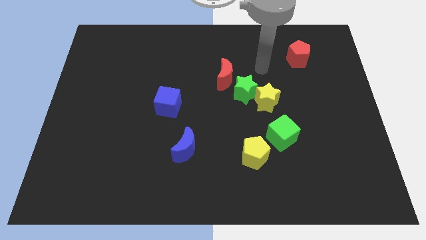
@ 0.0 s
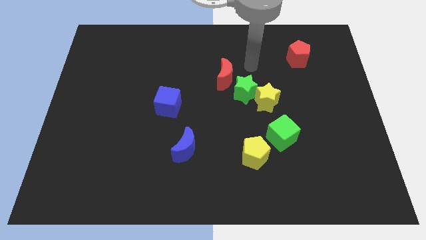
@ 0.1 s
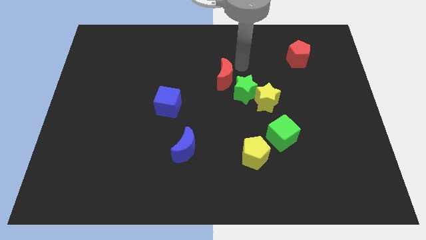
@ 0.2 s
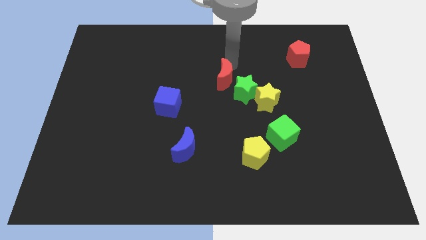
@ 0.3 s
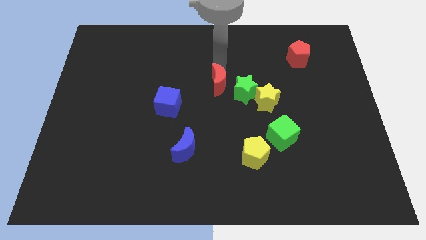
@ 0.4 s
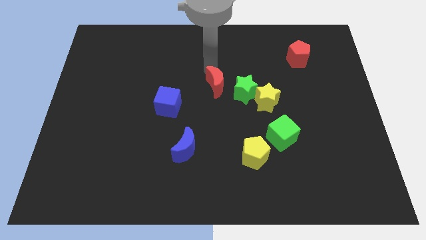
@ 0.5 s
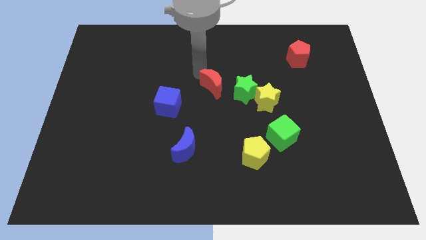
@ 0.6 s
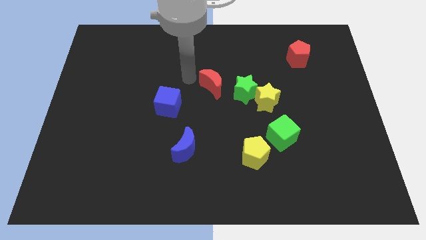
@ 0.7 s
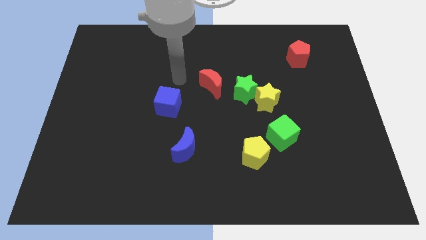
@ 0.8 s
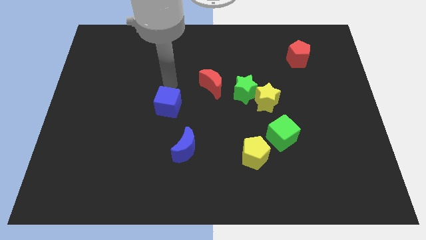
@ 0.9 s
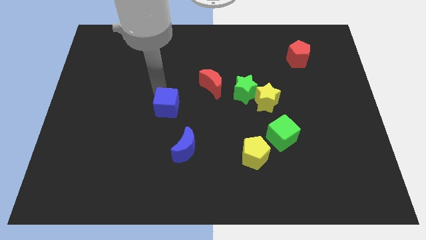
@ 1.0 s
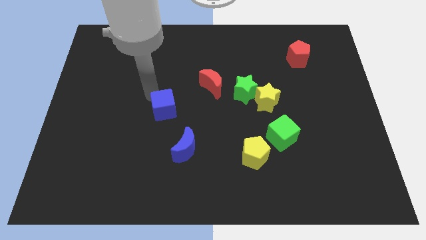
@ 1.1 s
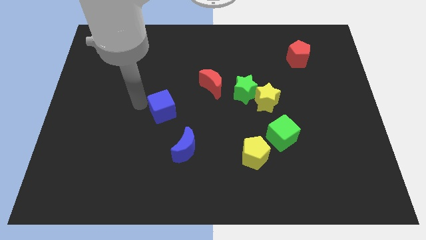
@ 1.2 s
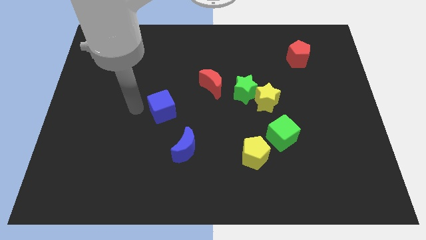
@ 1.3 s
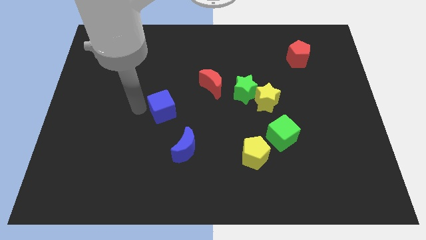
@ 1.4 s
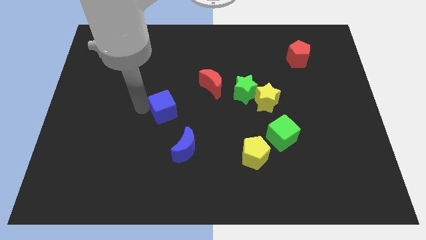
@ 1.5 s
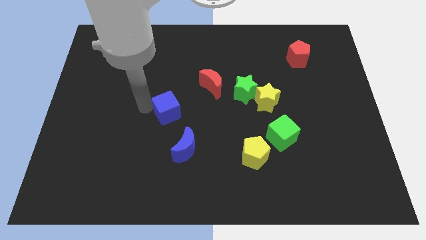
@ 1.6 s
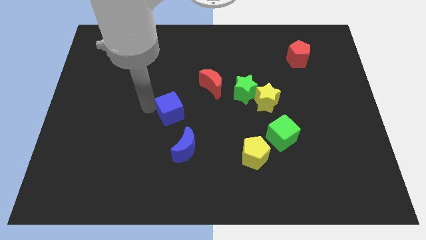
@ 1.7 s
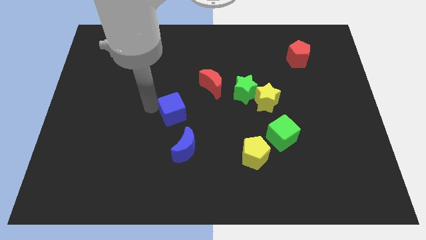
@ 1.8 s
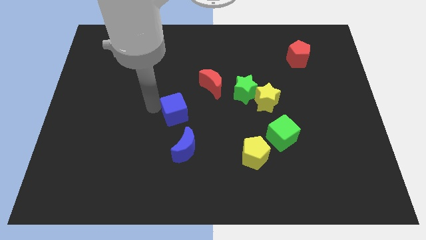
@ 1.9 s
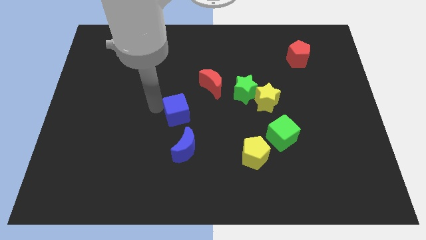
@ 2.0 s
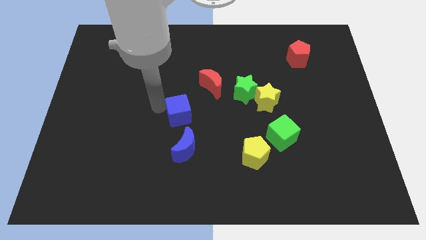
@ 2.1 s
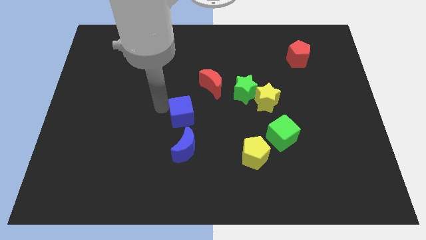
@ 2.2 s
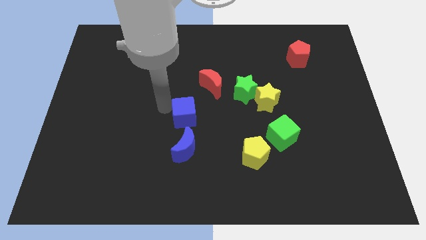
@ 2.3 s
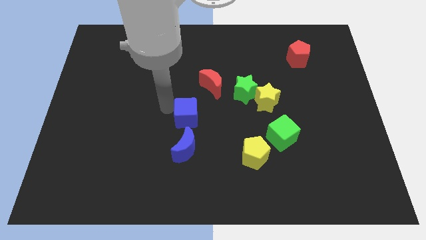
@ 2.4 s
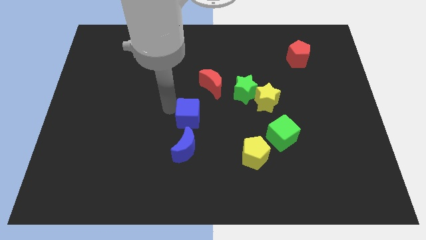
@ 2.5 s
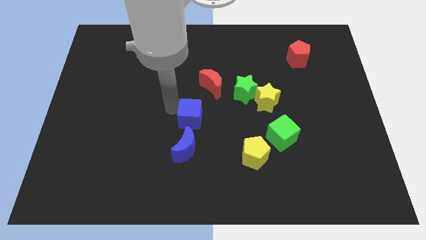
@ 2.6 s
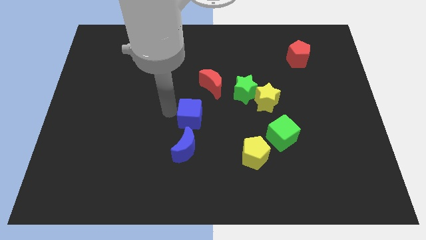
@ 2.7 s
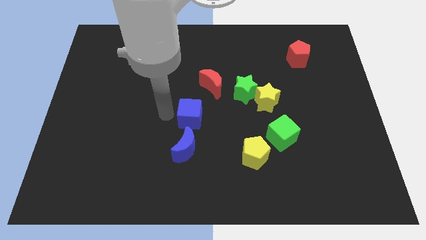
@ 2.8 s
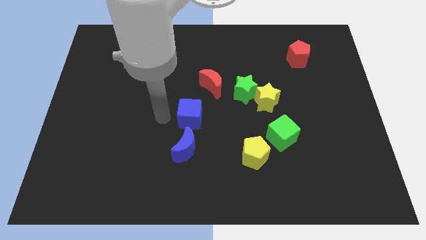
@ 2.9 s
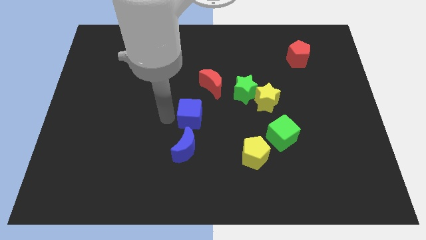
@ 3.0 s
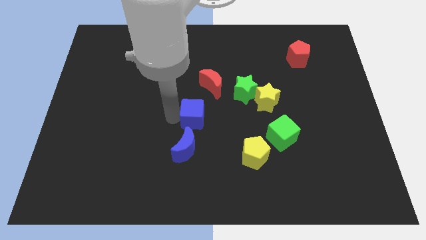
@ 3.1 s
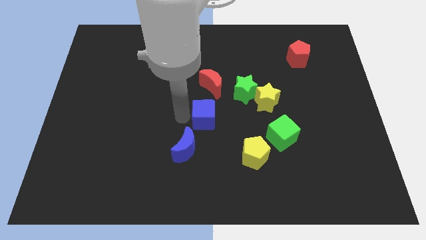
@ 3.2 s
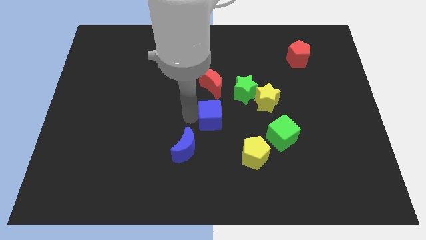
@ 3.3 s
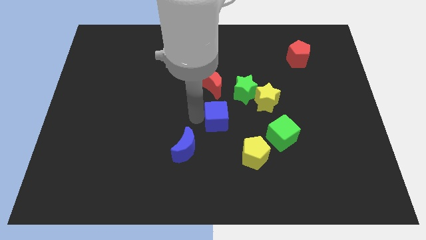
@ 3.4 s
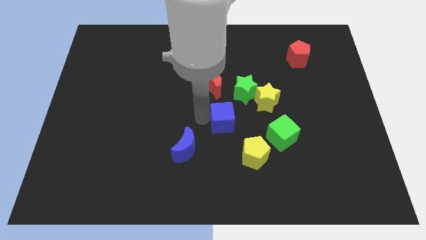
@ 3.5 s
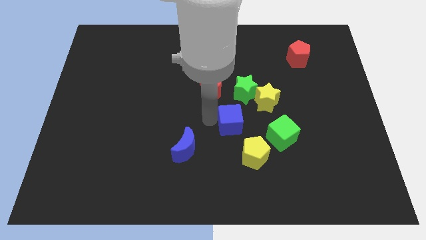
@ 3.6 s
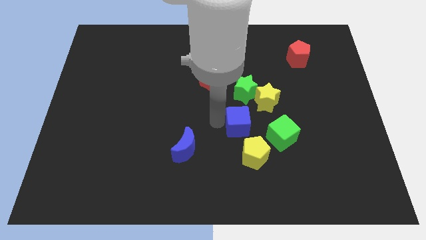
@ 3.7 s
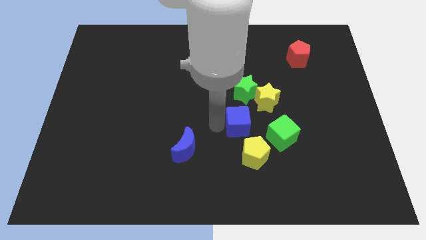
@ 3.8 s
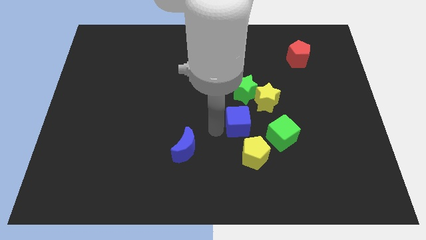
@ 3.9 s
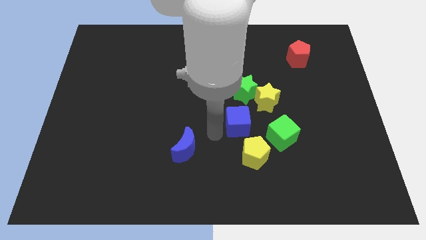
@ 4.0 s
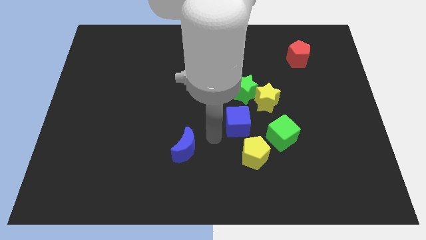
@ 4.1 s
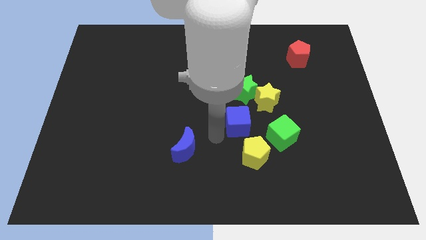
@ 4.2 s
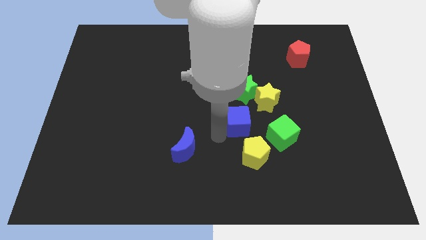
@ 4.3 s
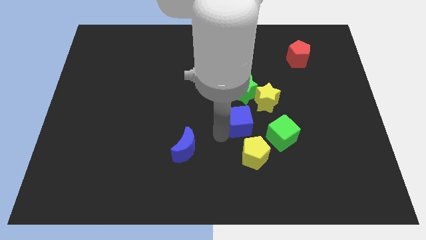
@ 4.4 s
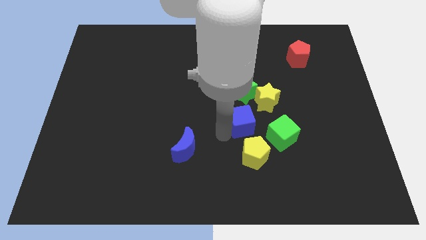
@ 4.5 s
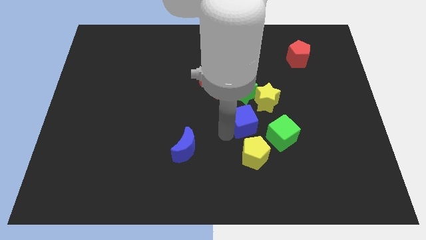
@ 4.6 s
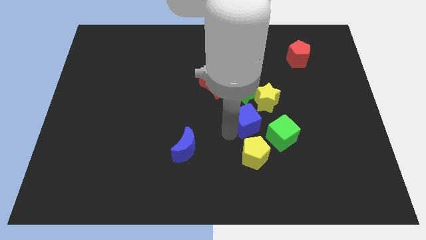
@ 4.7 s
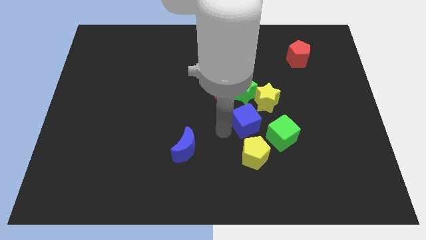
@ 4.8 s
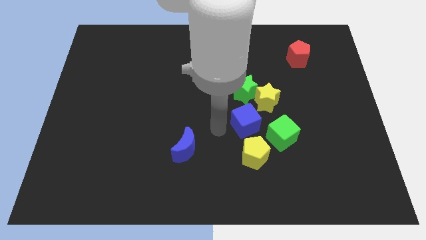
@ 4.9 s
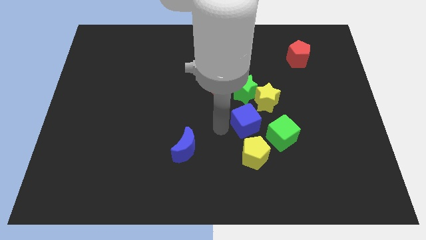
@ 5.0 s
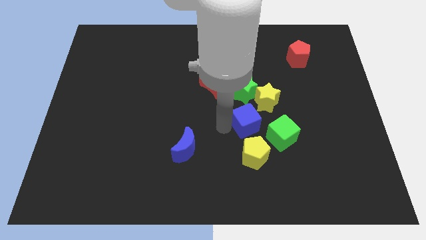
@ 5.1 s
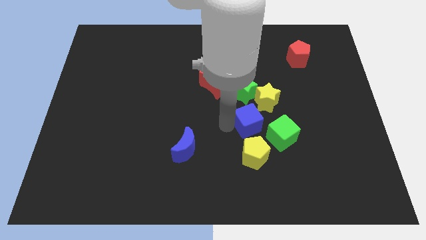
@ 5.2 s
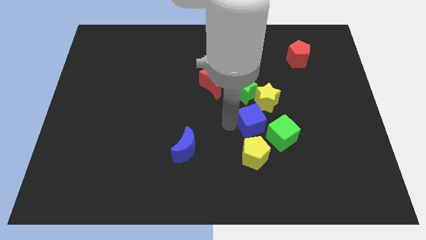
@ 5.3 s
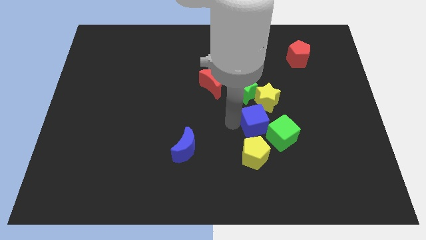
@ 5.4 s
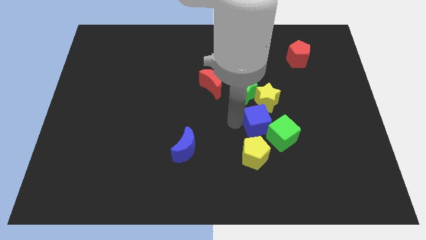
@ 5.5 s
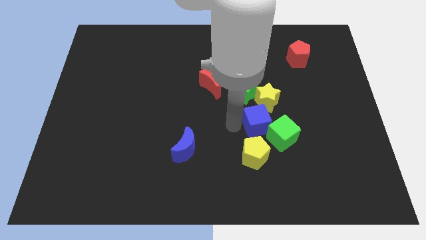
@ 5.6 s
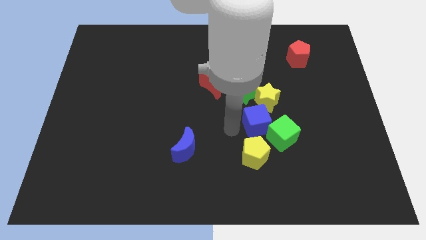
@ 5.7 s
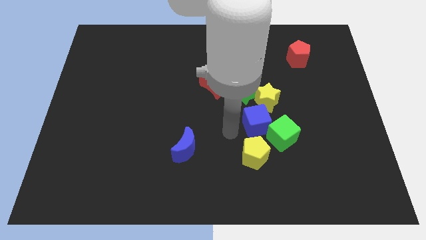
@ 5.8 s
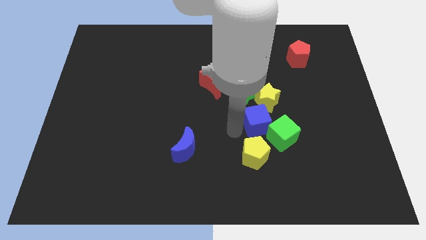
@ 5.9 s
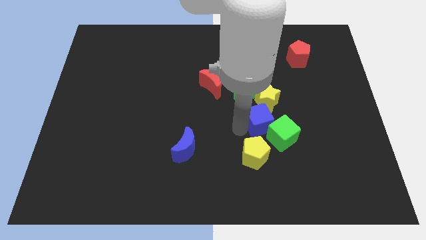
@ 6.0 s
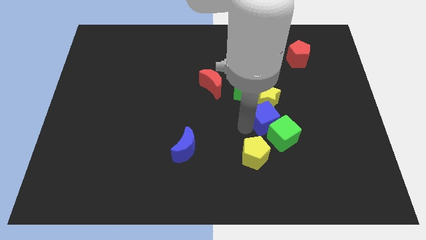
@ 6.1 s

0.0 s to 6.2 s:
slide the blue cube diagonally down and to the right of the yellow star
